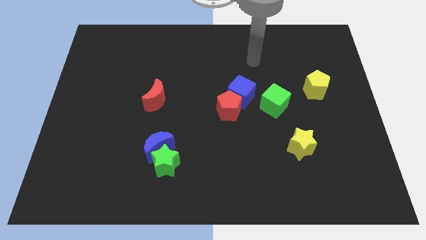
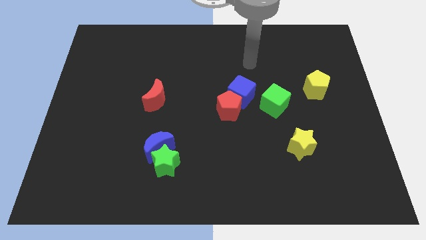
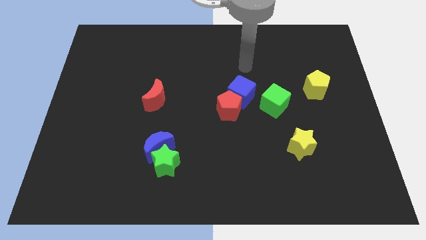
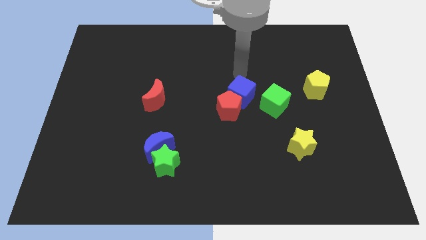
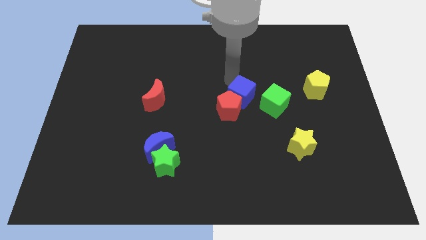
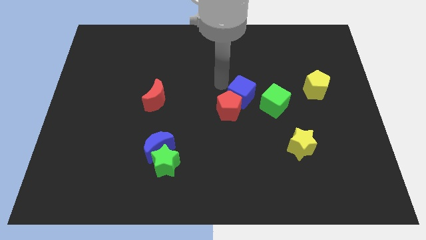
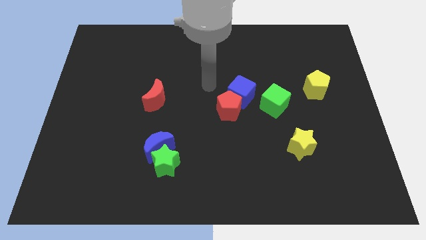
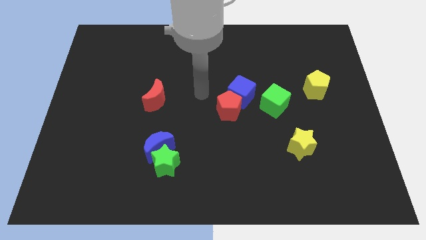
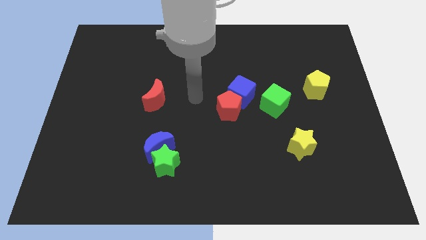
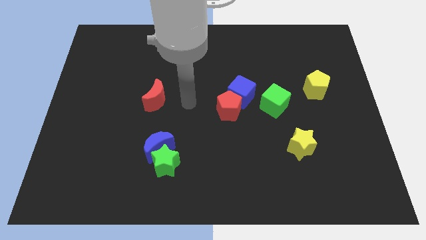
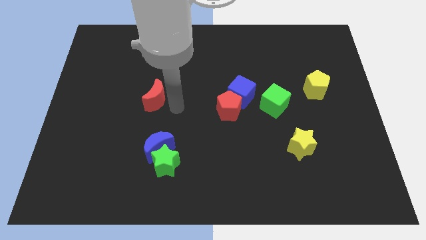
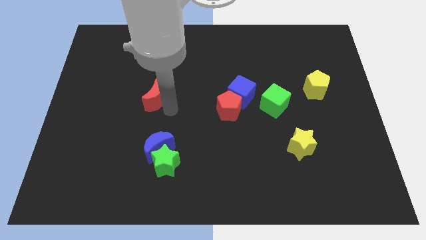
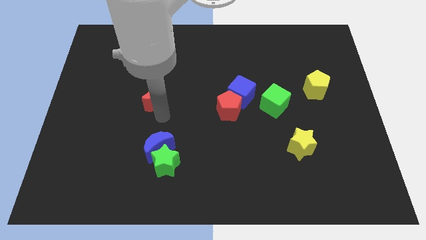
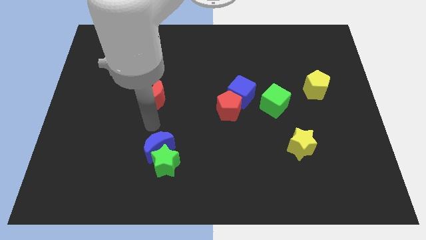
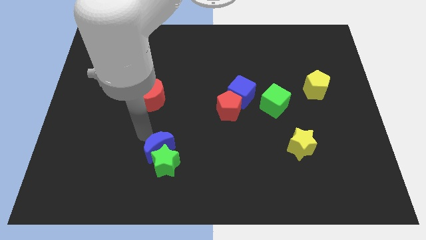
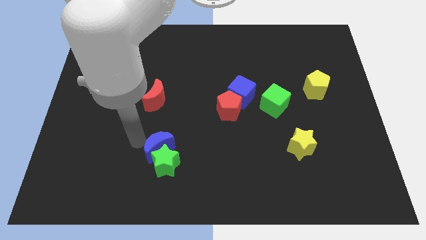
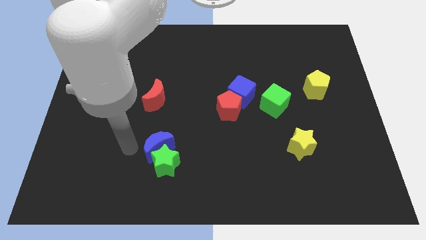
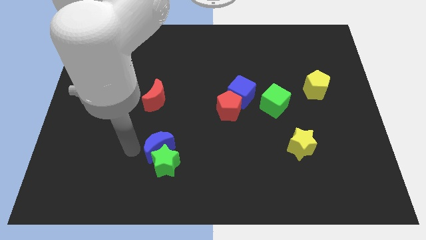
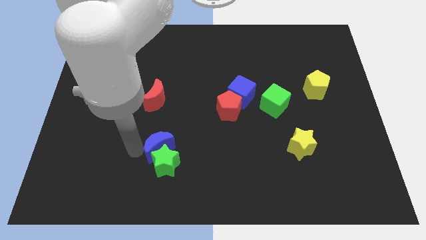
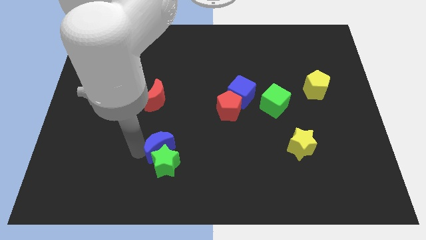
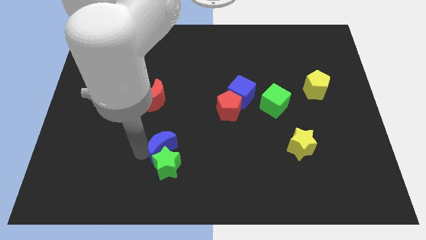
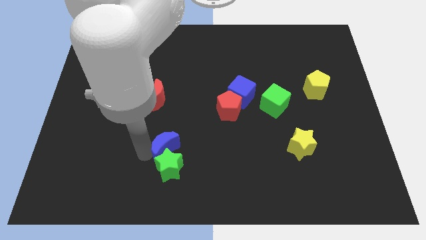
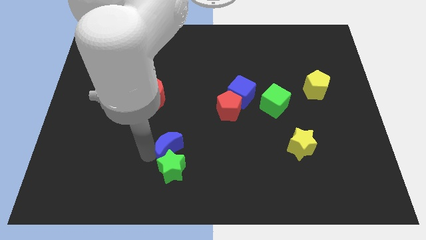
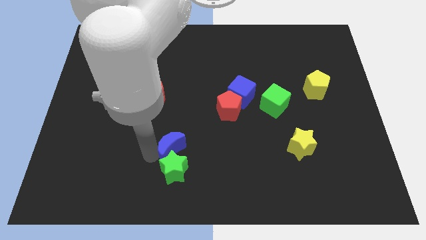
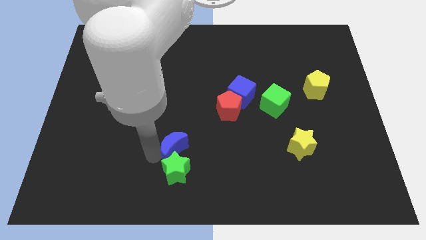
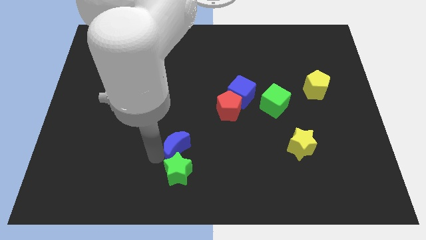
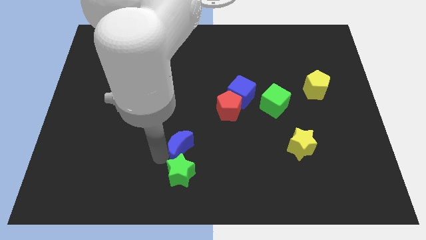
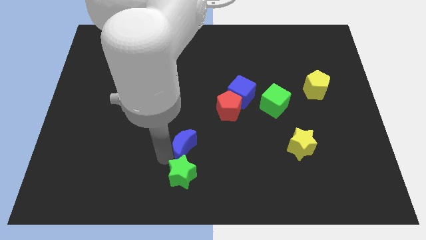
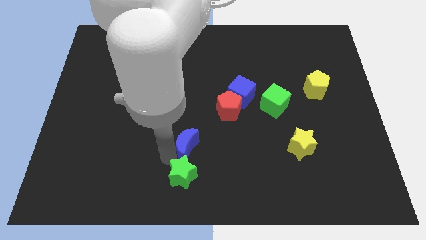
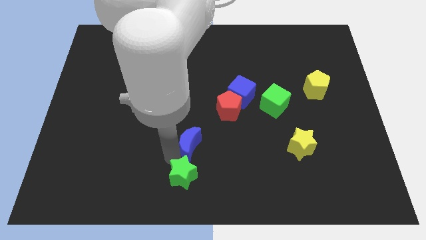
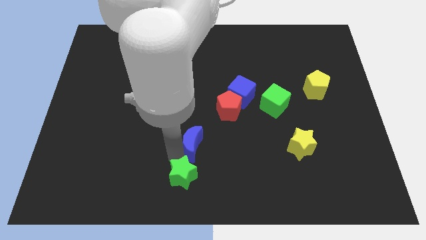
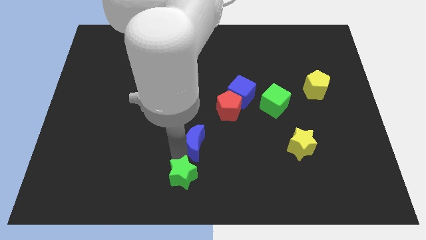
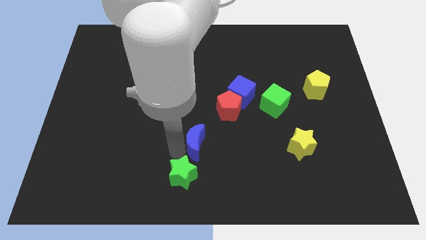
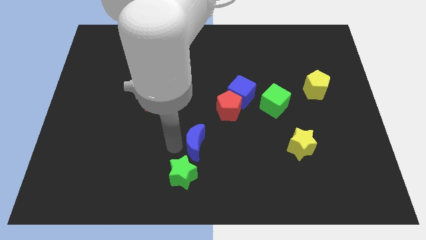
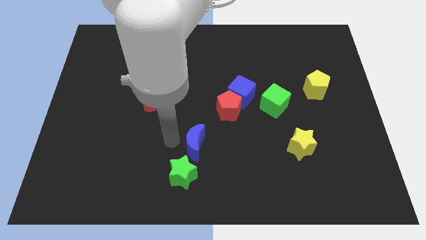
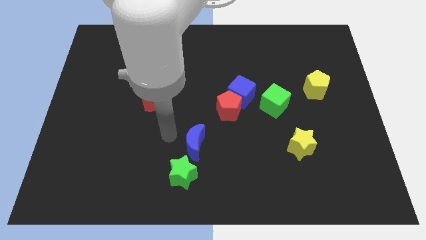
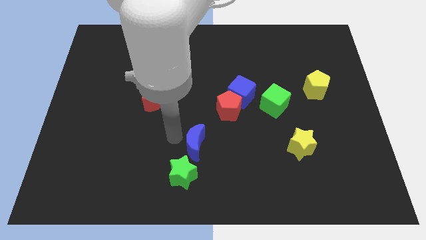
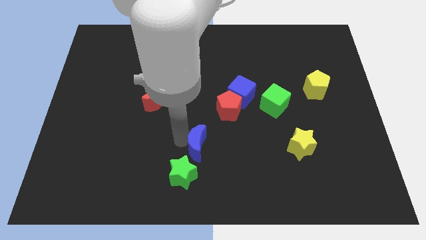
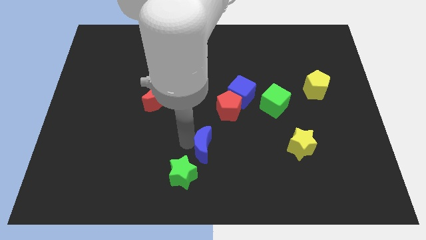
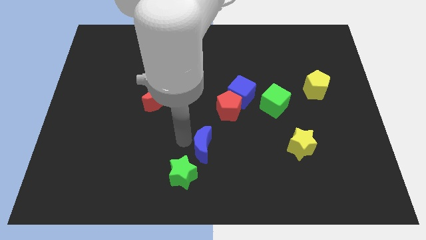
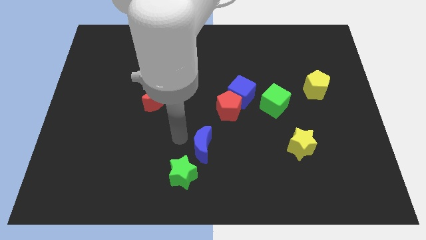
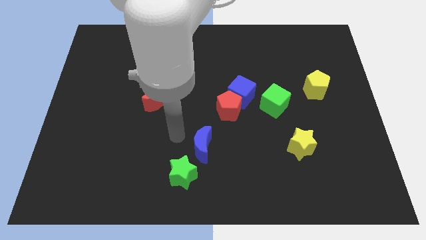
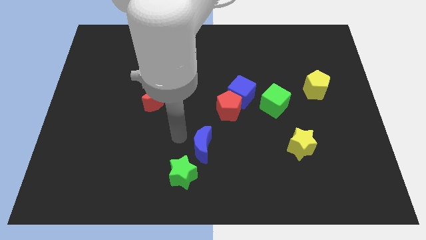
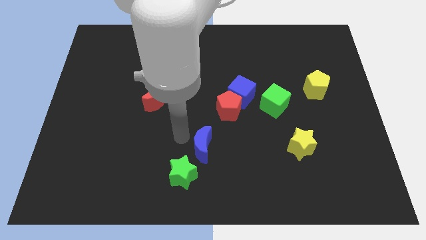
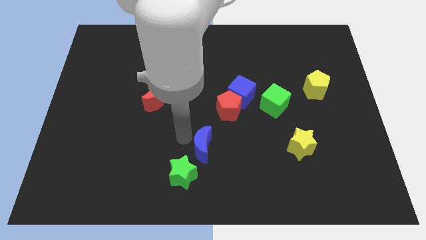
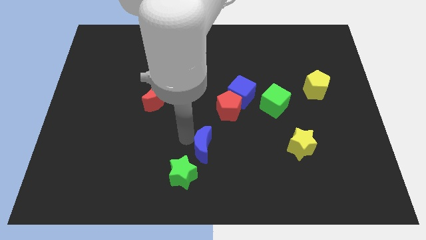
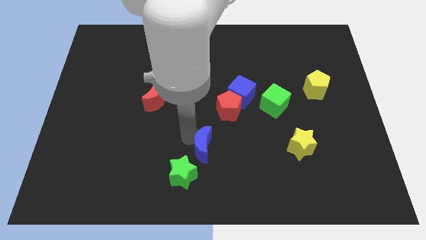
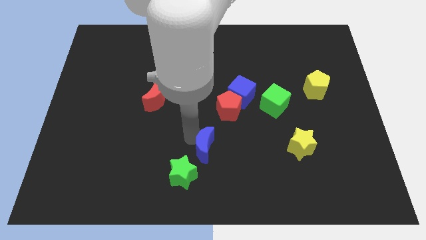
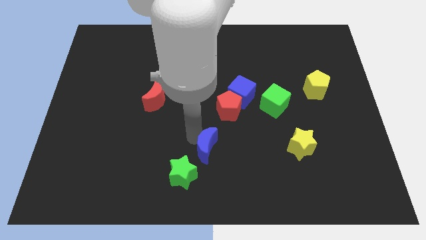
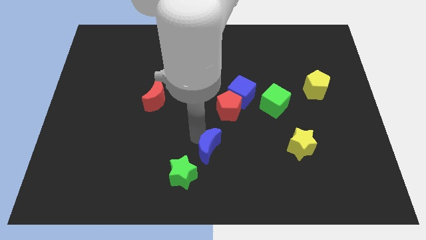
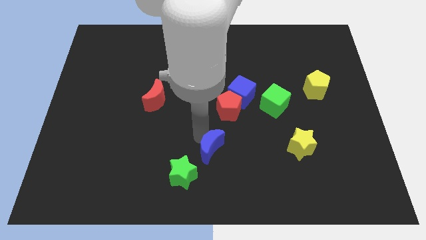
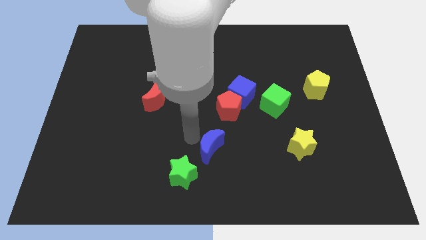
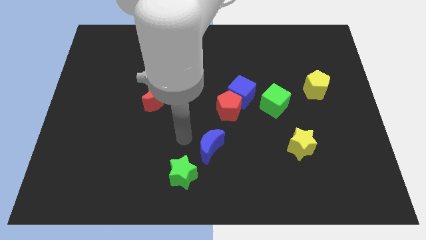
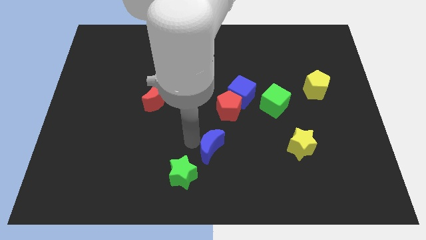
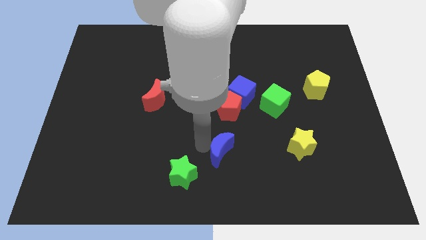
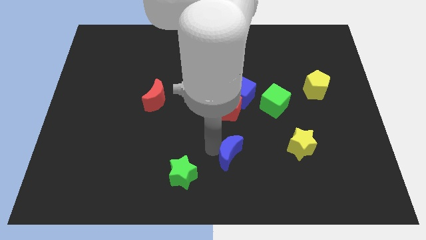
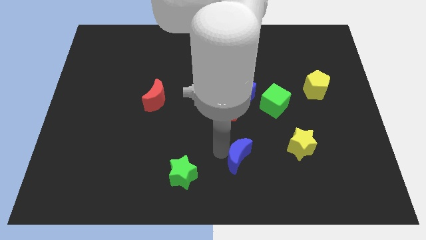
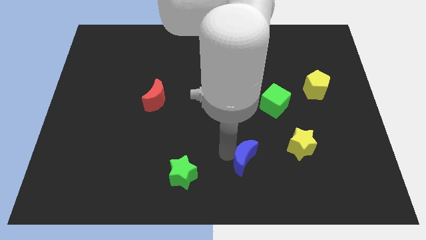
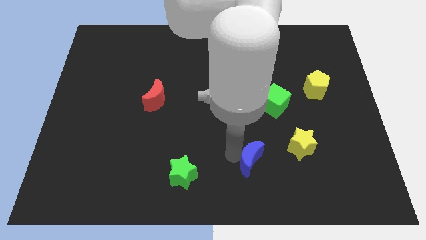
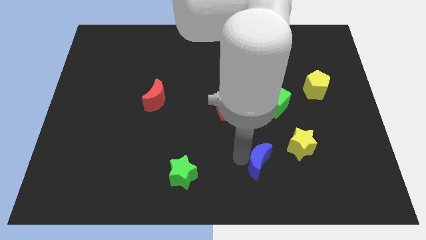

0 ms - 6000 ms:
push the blue moon to the bottom left side of the yellow star

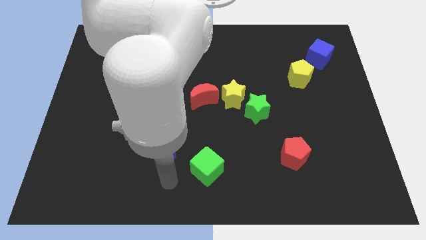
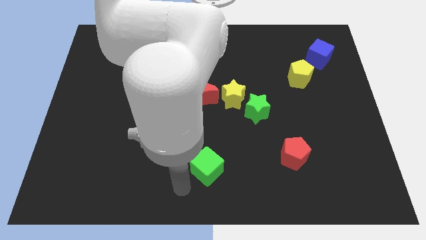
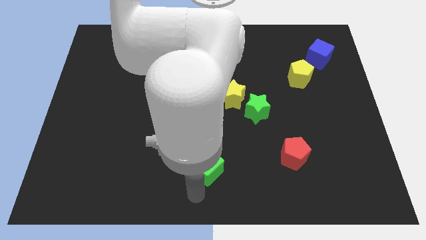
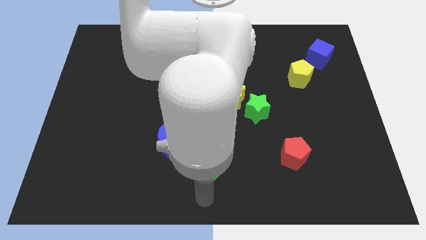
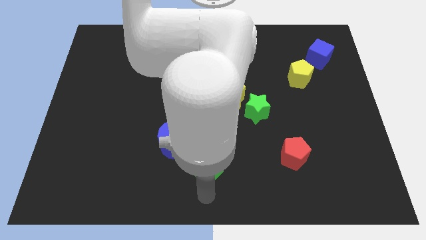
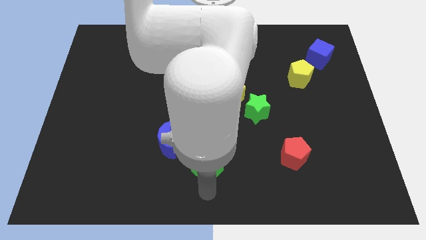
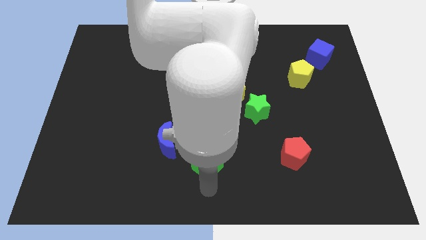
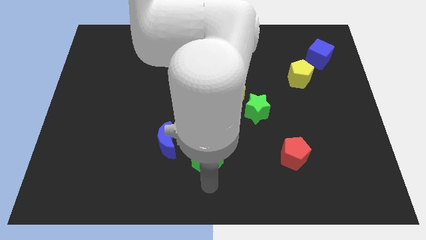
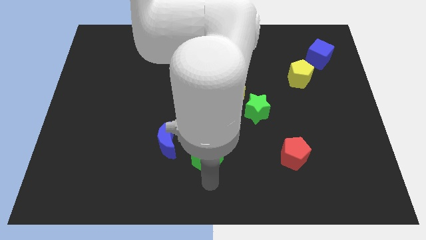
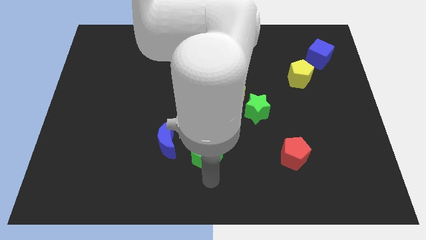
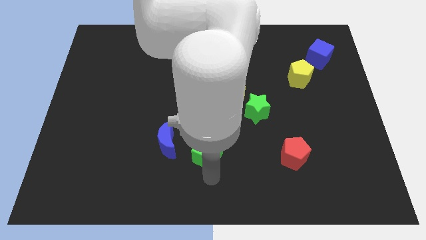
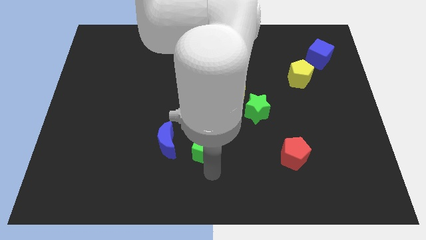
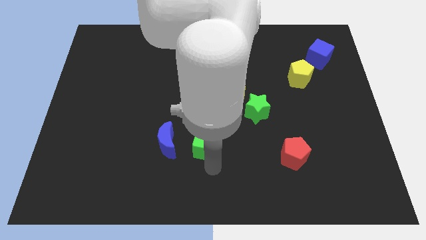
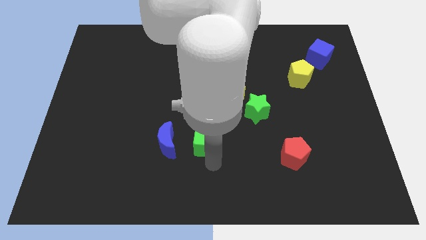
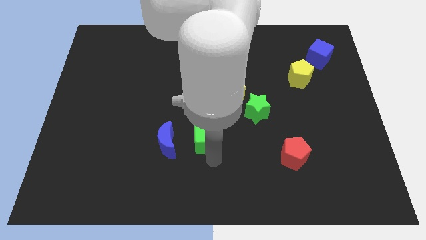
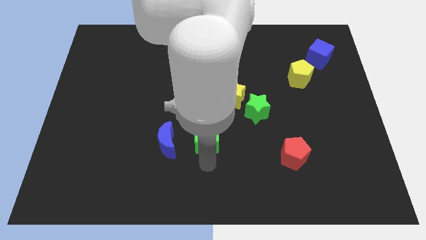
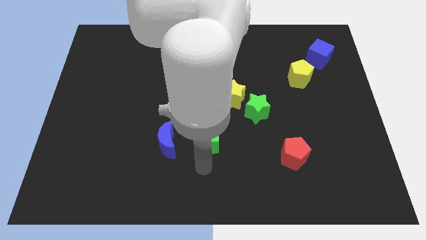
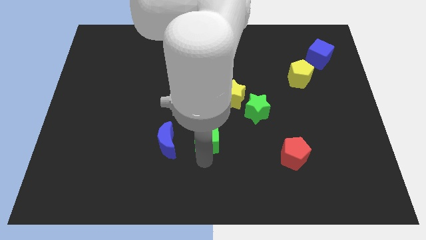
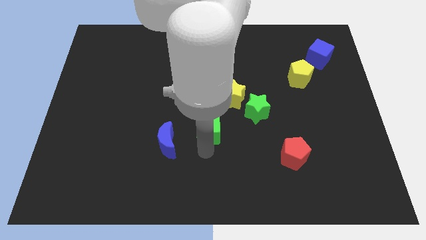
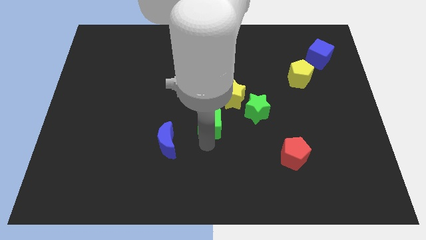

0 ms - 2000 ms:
push the green cube to the left of the green star

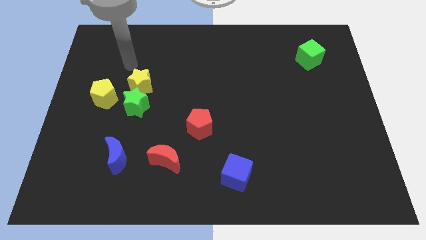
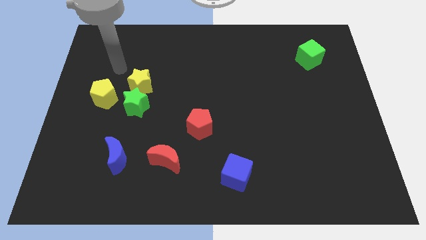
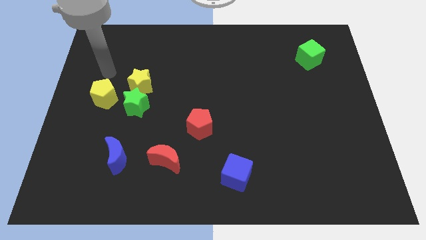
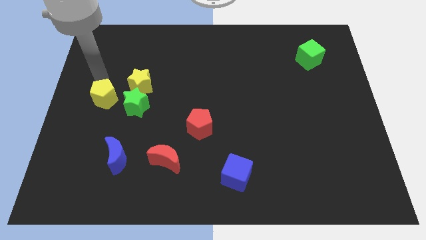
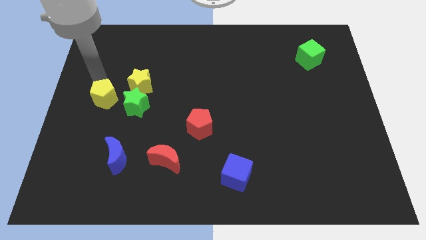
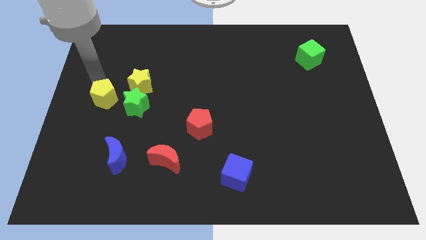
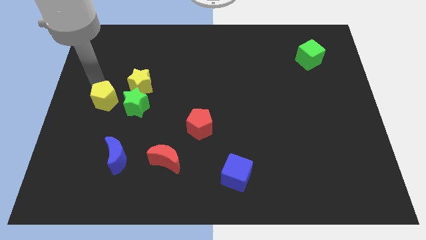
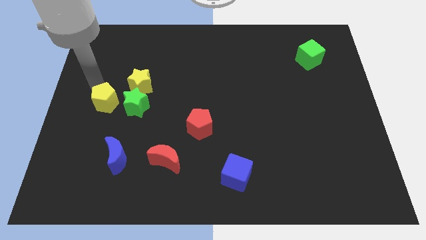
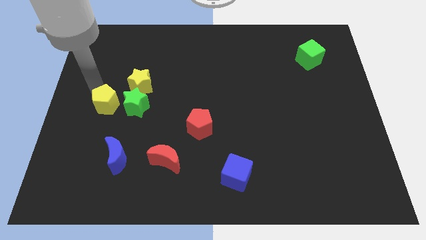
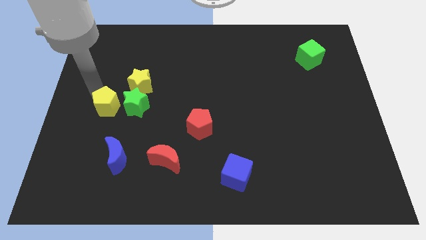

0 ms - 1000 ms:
slide the yellow pentagon diagonally down and to the left of the green star
